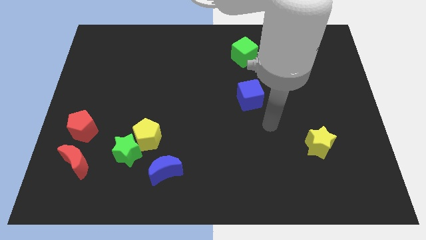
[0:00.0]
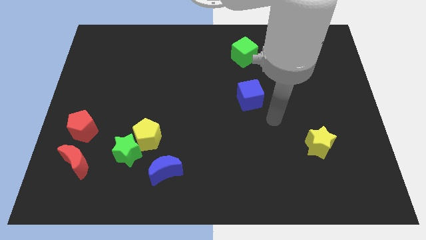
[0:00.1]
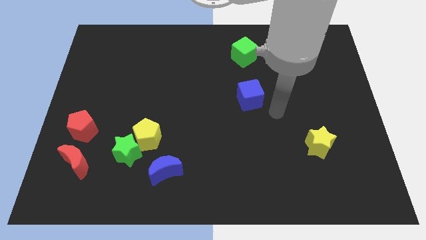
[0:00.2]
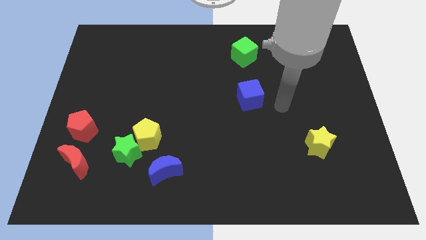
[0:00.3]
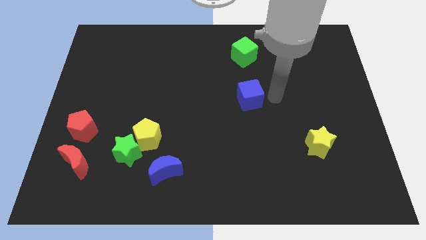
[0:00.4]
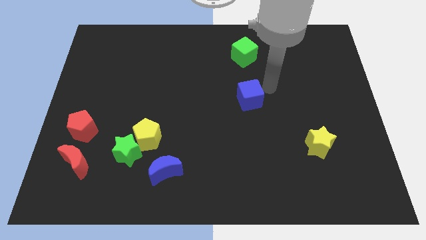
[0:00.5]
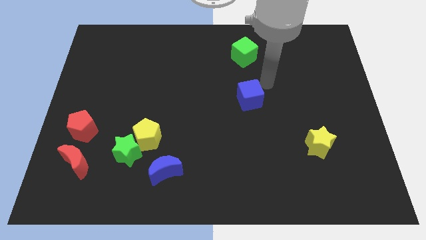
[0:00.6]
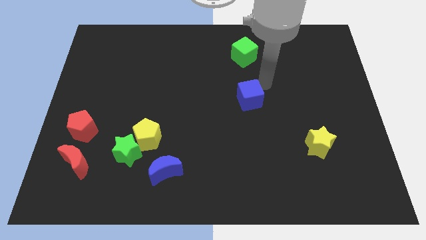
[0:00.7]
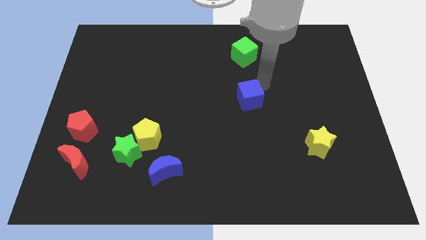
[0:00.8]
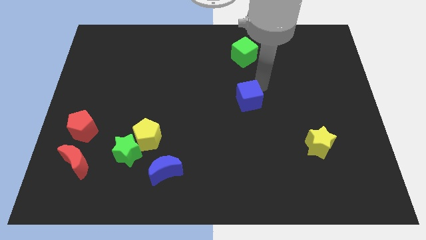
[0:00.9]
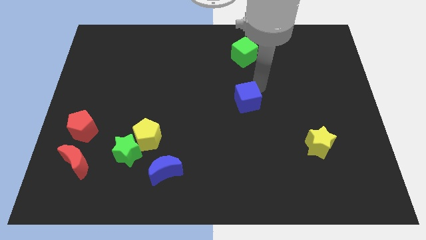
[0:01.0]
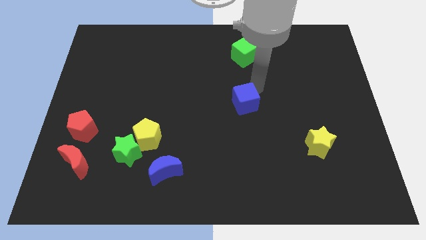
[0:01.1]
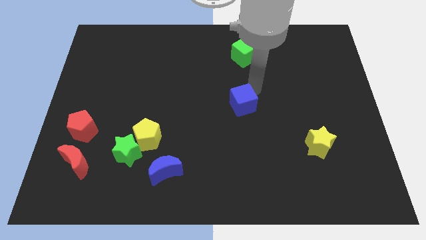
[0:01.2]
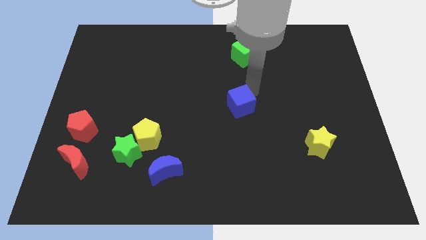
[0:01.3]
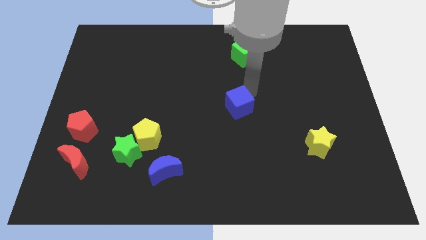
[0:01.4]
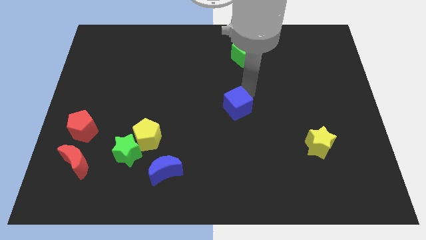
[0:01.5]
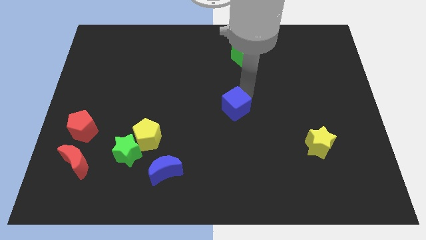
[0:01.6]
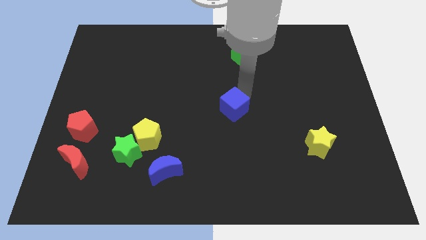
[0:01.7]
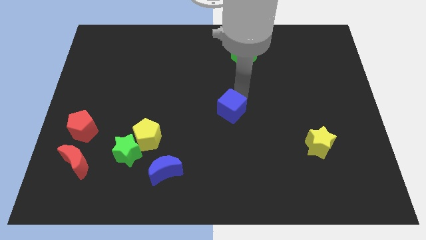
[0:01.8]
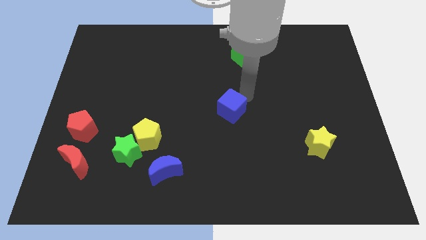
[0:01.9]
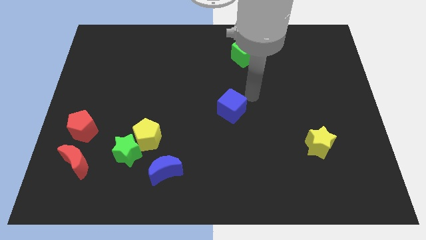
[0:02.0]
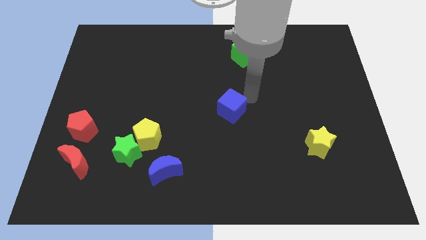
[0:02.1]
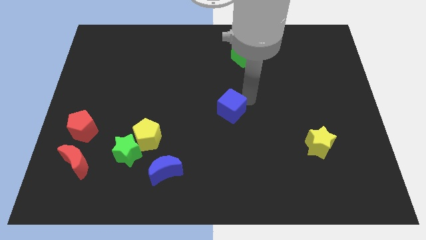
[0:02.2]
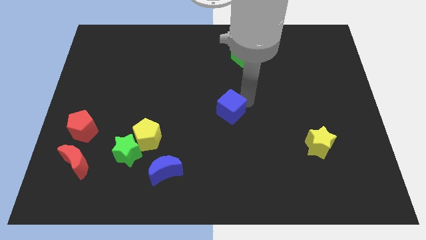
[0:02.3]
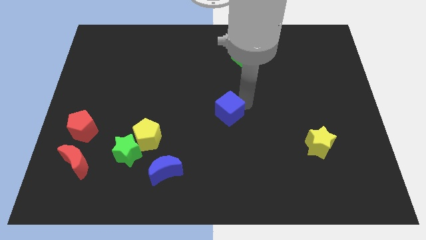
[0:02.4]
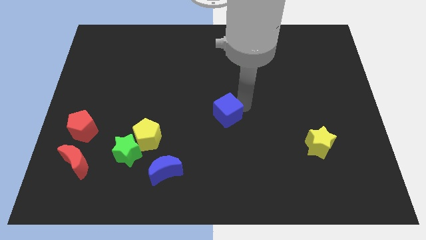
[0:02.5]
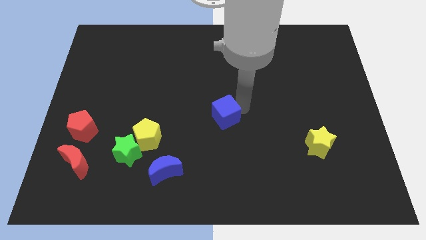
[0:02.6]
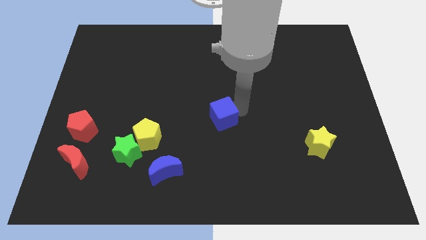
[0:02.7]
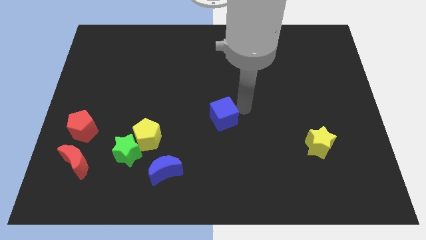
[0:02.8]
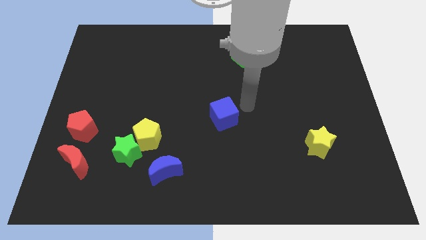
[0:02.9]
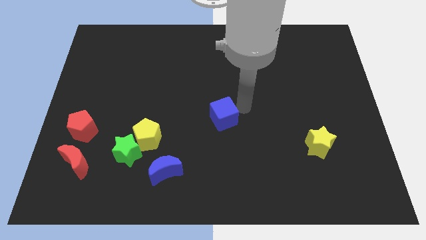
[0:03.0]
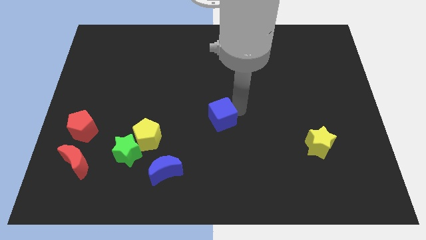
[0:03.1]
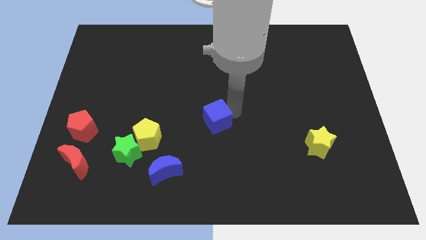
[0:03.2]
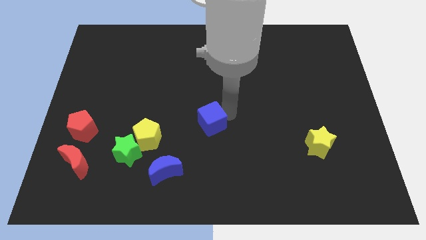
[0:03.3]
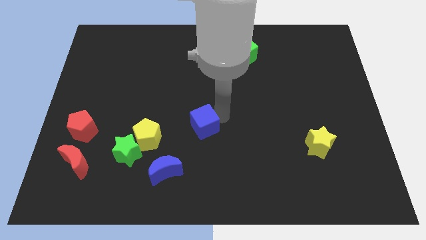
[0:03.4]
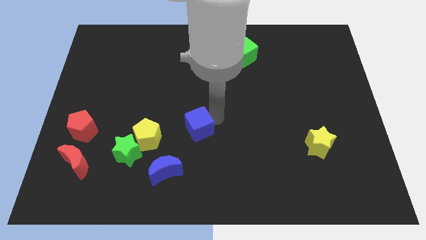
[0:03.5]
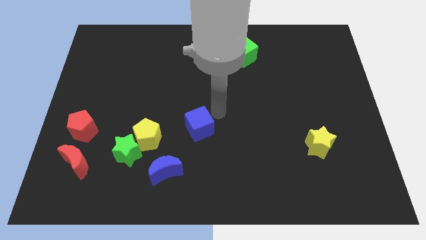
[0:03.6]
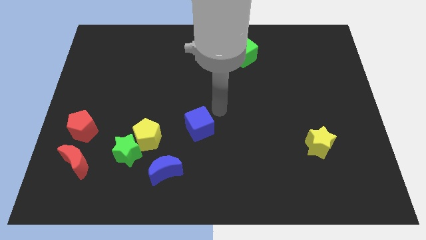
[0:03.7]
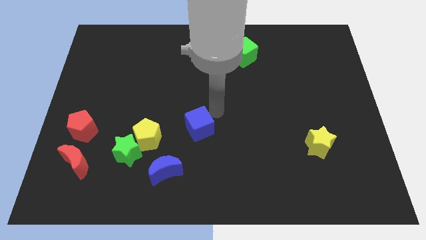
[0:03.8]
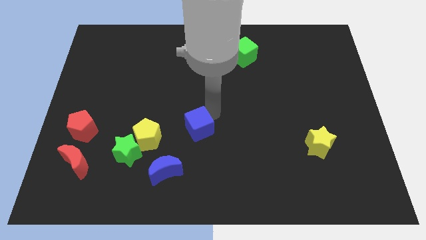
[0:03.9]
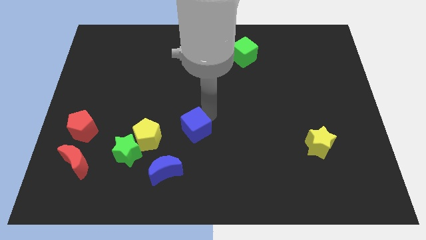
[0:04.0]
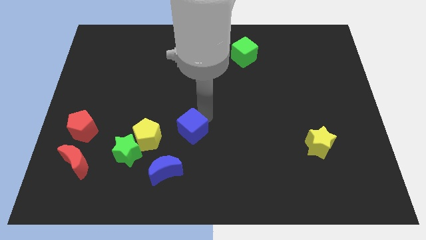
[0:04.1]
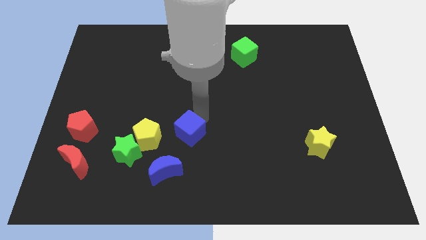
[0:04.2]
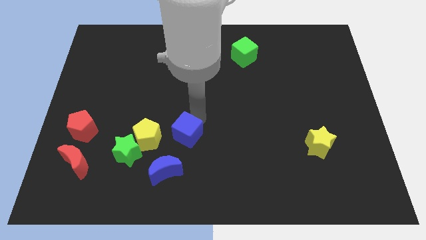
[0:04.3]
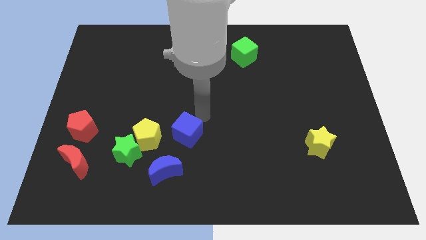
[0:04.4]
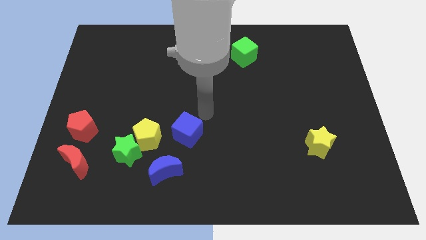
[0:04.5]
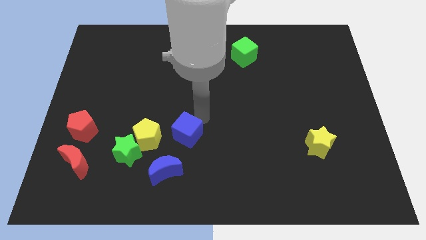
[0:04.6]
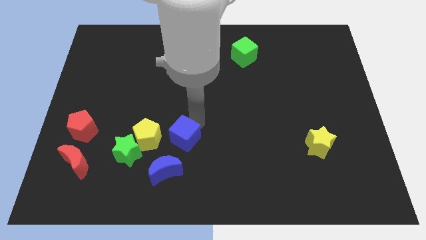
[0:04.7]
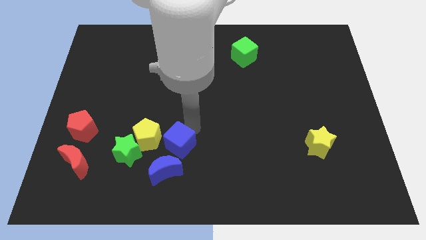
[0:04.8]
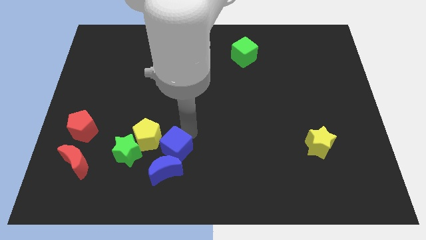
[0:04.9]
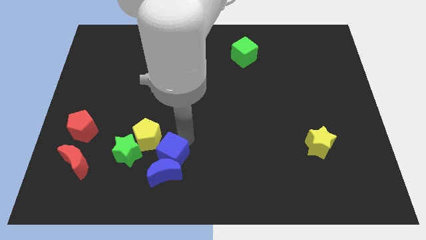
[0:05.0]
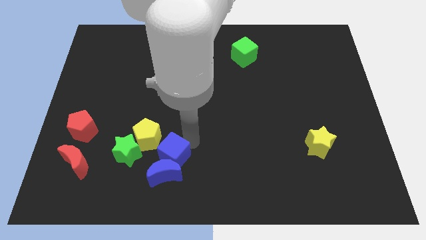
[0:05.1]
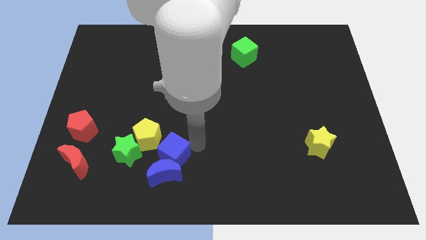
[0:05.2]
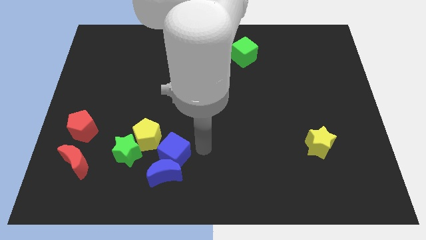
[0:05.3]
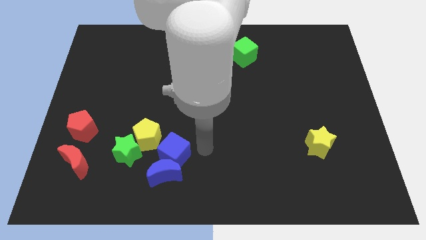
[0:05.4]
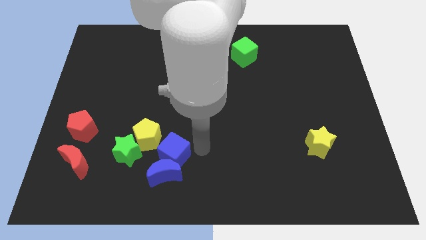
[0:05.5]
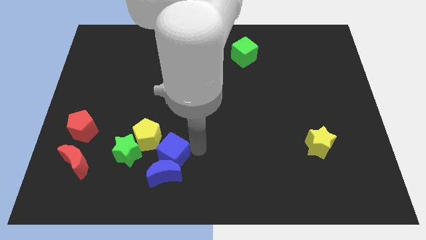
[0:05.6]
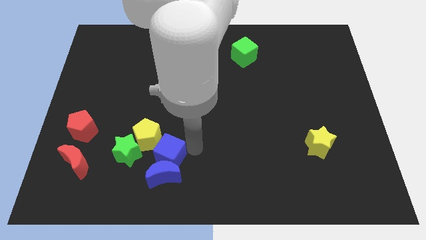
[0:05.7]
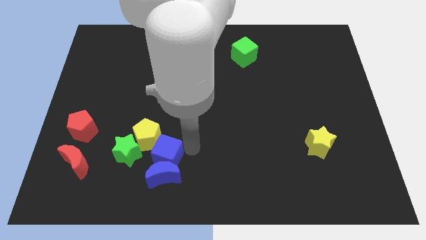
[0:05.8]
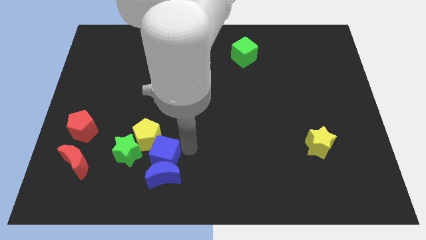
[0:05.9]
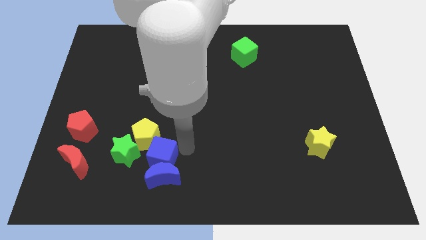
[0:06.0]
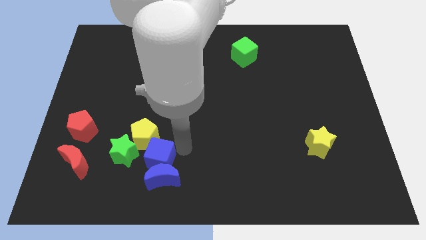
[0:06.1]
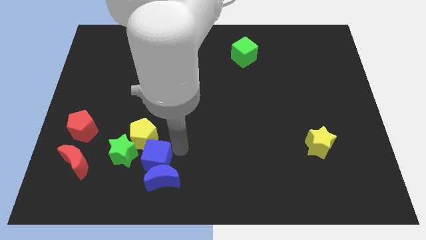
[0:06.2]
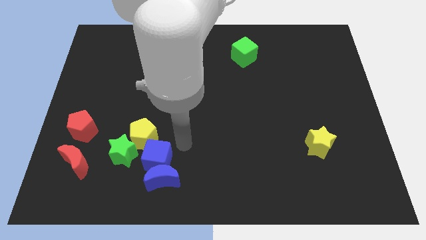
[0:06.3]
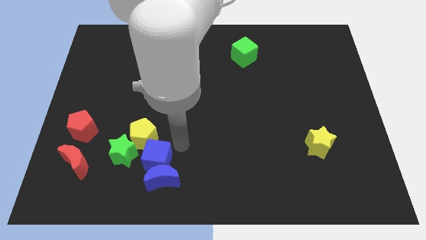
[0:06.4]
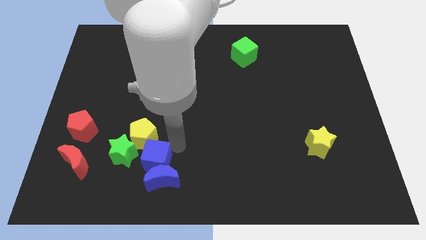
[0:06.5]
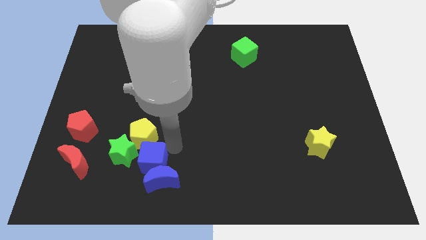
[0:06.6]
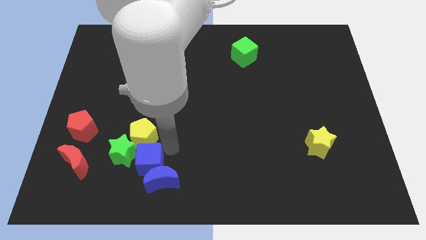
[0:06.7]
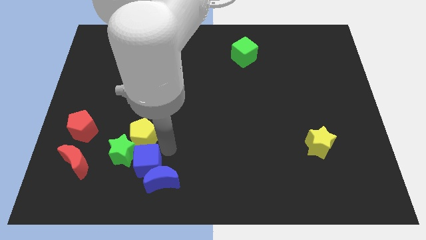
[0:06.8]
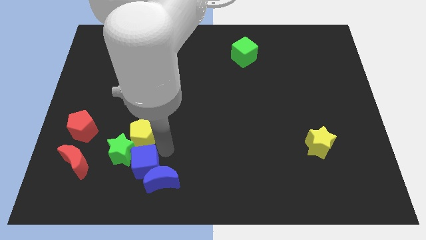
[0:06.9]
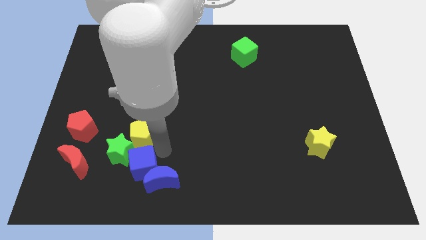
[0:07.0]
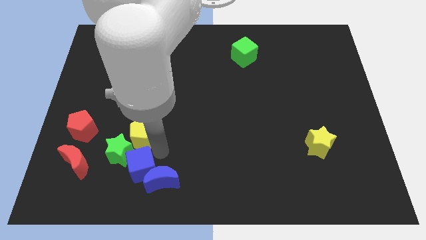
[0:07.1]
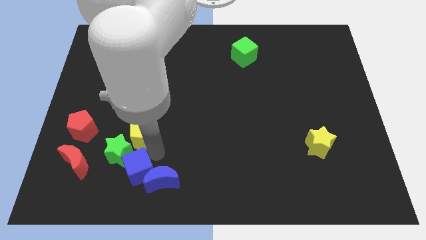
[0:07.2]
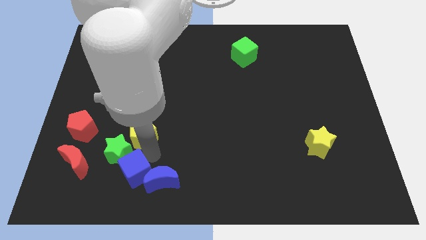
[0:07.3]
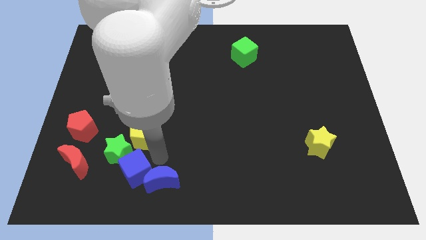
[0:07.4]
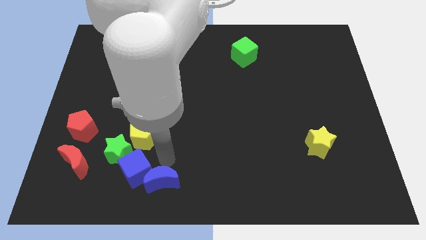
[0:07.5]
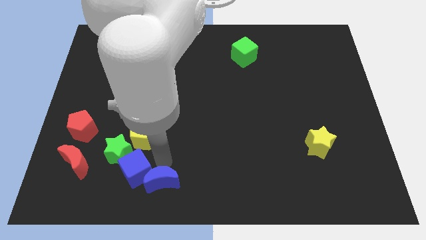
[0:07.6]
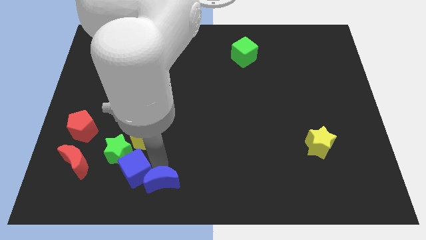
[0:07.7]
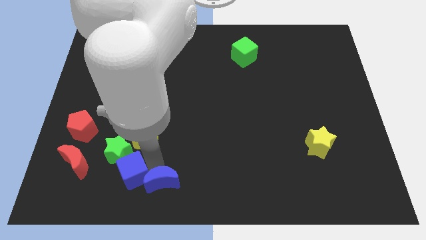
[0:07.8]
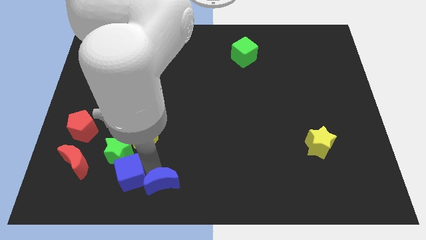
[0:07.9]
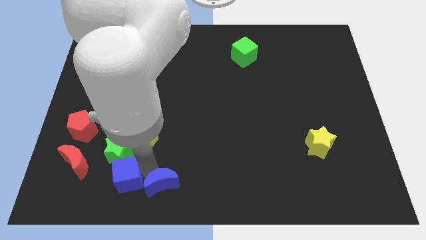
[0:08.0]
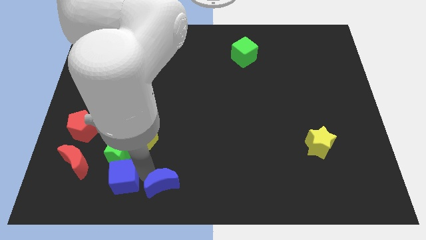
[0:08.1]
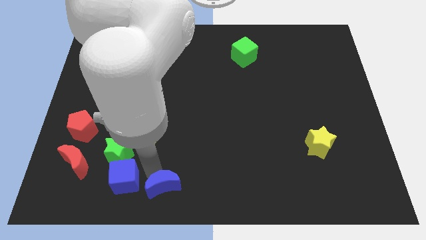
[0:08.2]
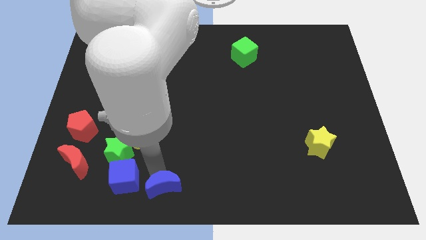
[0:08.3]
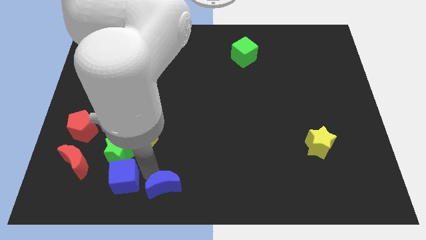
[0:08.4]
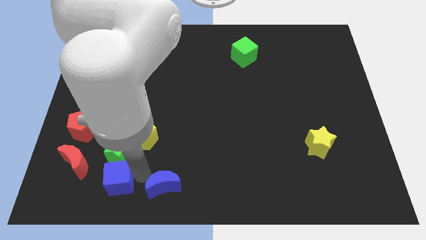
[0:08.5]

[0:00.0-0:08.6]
move the blue cube to the bottom right of the red moon
